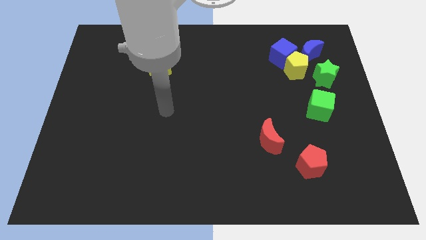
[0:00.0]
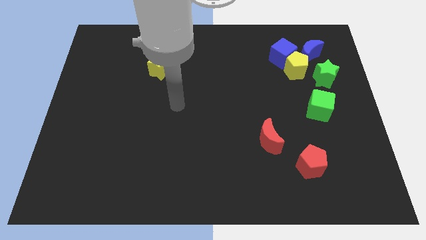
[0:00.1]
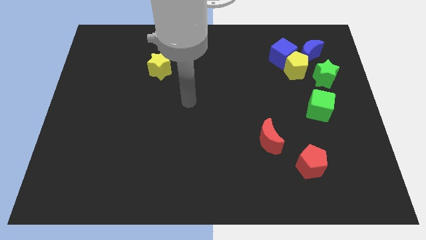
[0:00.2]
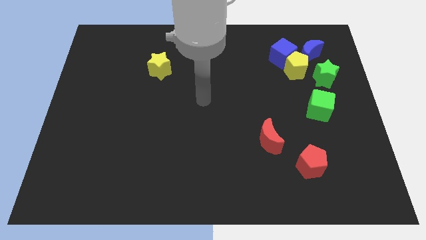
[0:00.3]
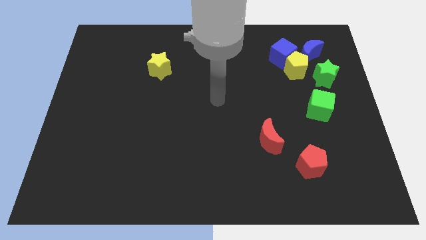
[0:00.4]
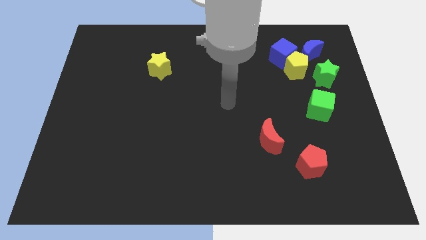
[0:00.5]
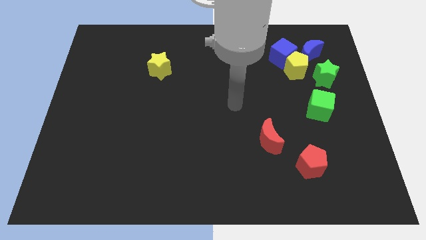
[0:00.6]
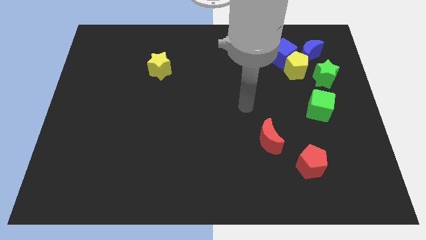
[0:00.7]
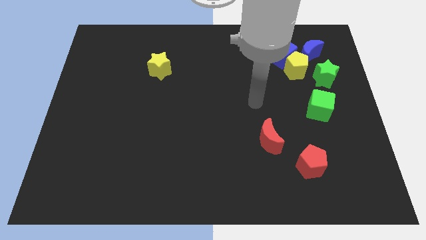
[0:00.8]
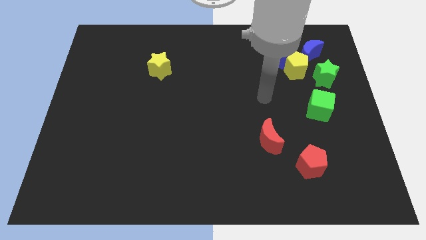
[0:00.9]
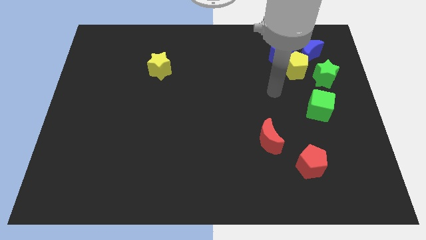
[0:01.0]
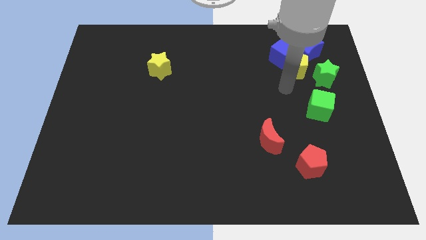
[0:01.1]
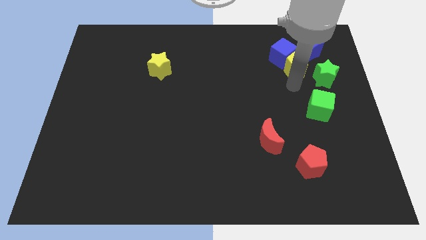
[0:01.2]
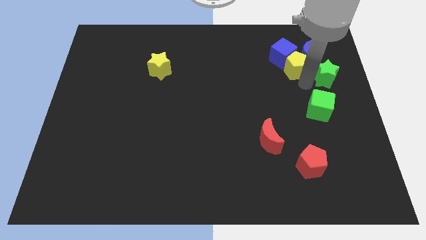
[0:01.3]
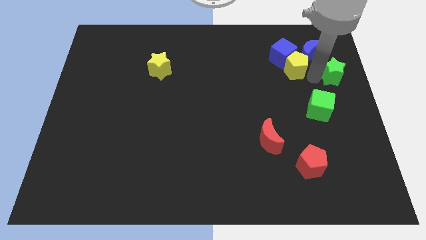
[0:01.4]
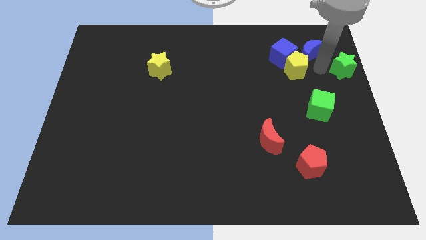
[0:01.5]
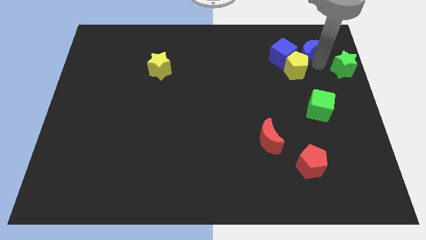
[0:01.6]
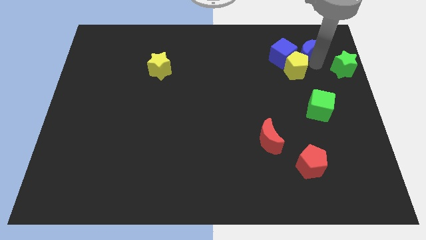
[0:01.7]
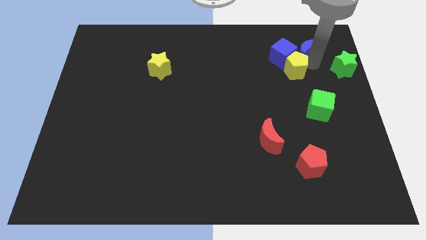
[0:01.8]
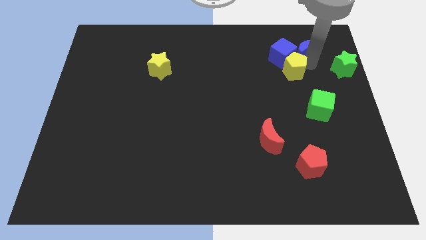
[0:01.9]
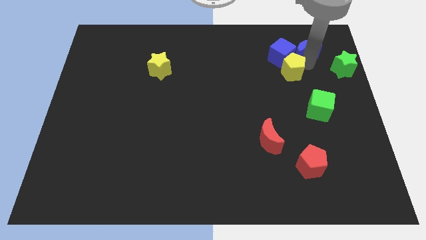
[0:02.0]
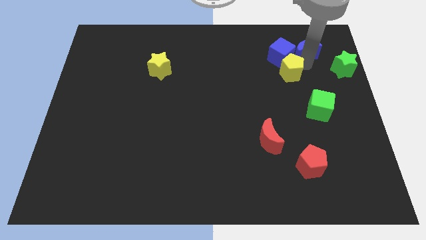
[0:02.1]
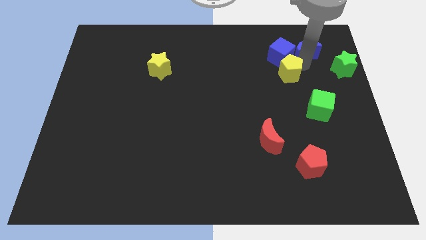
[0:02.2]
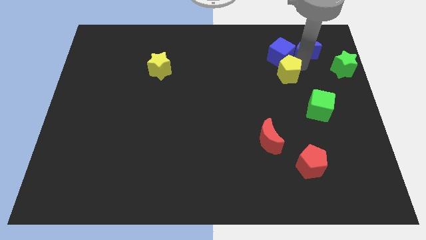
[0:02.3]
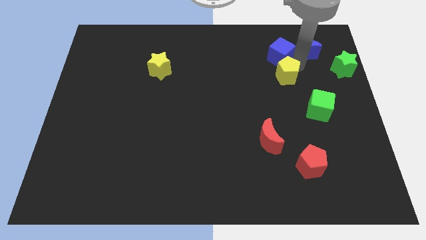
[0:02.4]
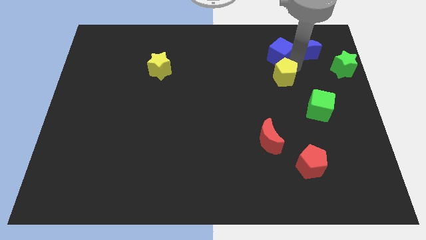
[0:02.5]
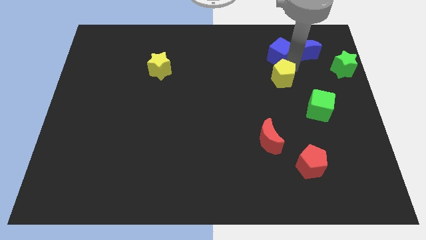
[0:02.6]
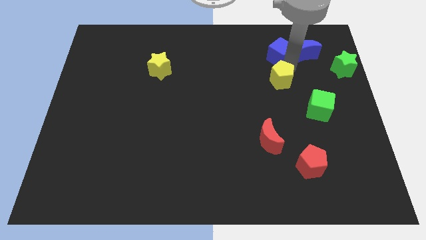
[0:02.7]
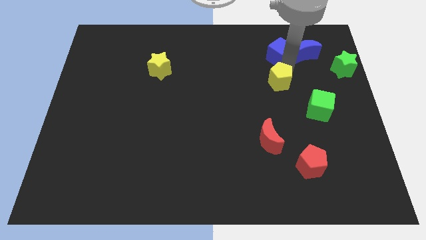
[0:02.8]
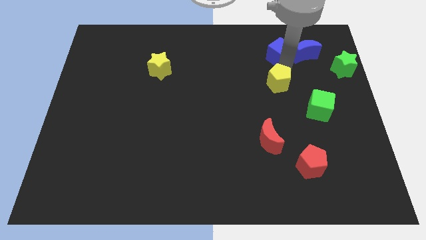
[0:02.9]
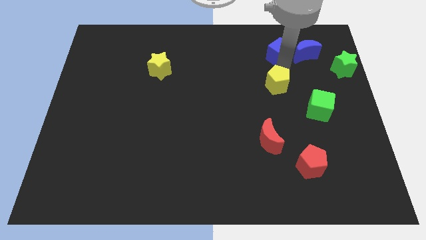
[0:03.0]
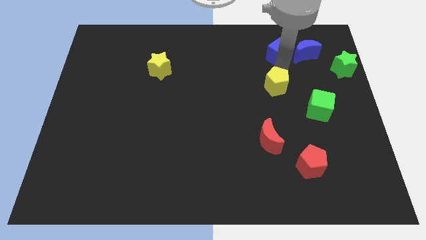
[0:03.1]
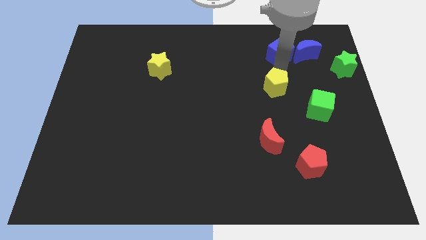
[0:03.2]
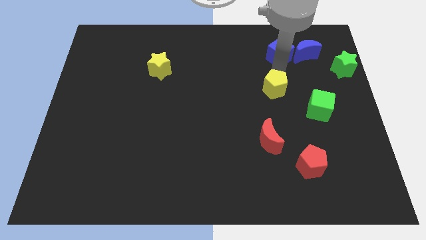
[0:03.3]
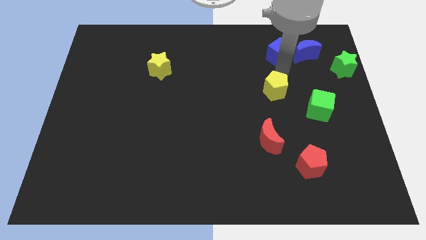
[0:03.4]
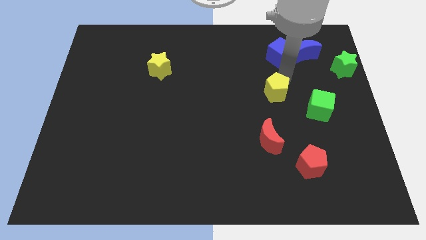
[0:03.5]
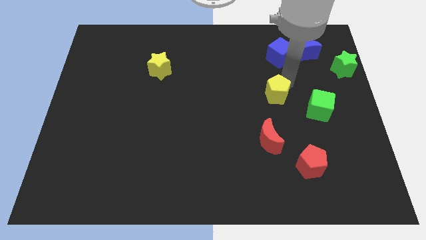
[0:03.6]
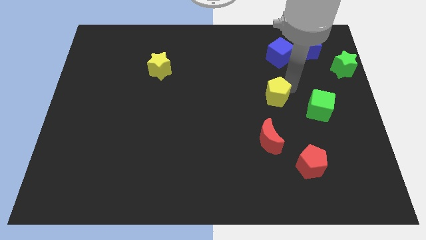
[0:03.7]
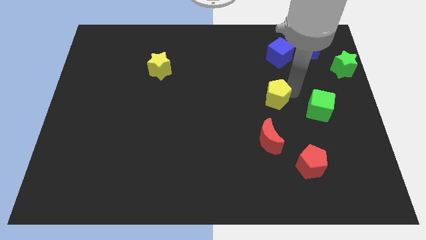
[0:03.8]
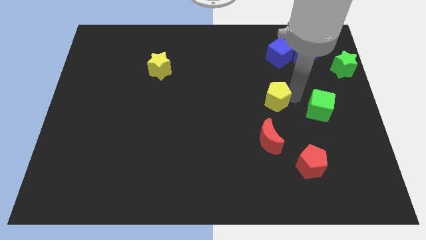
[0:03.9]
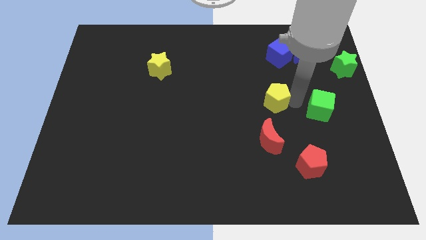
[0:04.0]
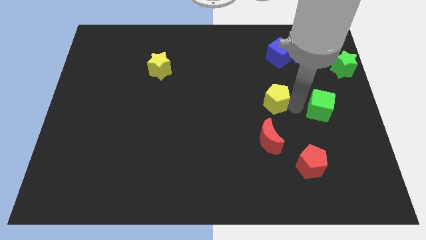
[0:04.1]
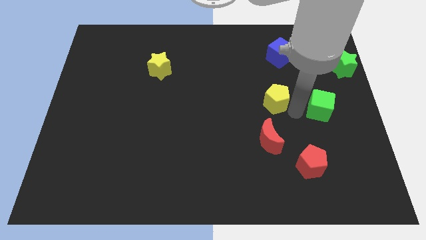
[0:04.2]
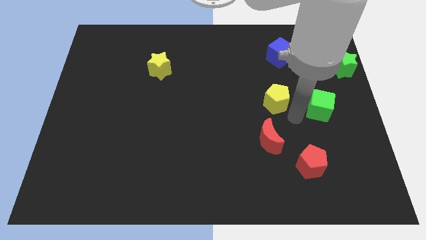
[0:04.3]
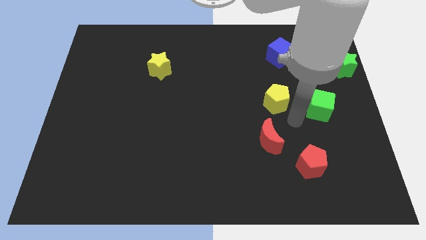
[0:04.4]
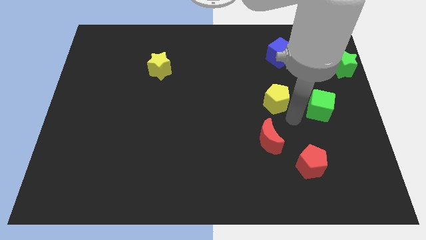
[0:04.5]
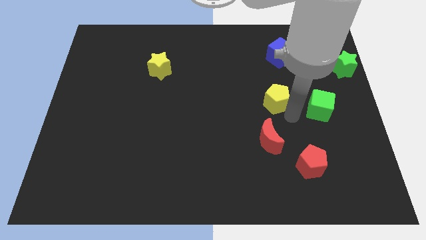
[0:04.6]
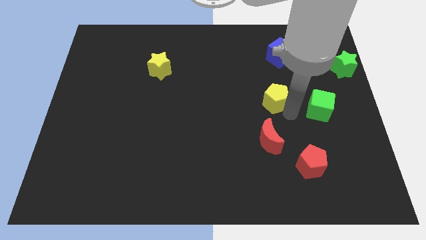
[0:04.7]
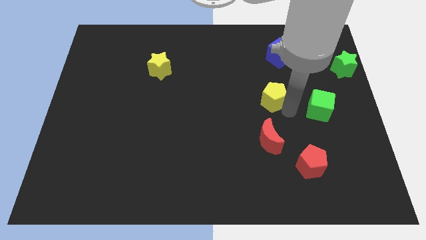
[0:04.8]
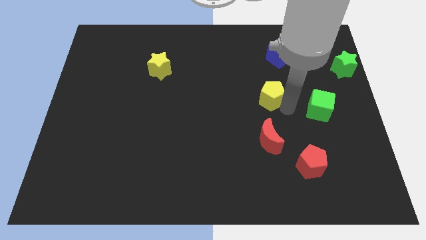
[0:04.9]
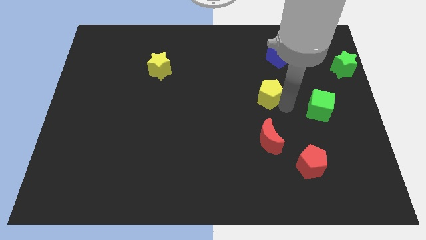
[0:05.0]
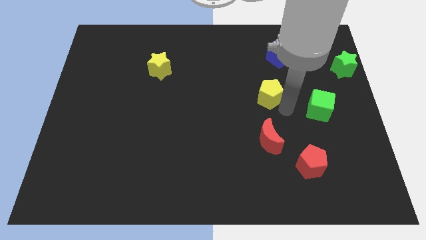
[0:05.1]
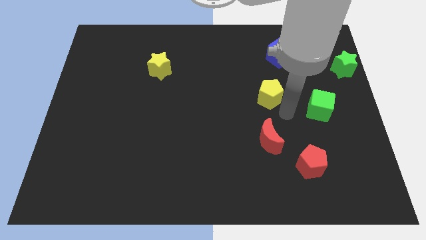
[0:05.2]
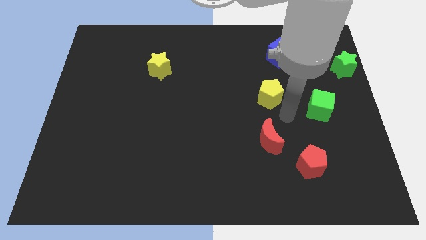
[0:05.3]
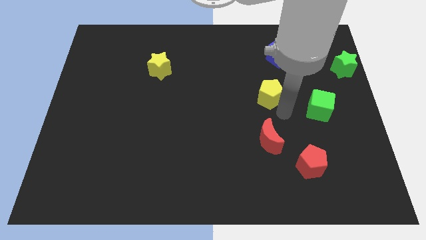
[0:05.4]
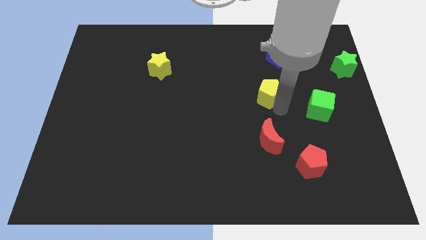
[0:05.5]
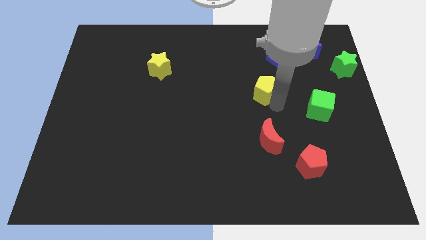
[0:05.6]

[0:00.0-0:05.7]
slide the yellow pentagon to the middle of the board
